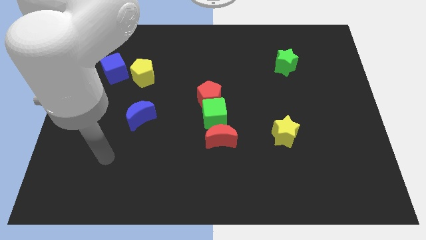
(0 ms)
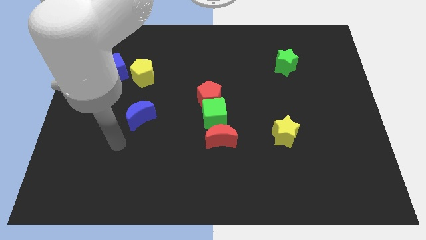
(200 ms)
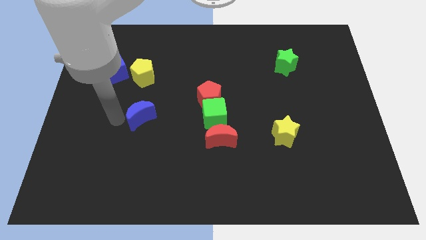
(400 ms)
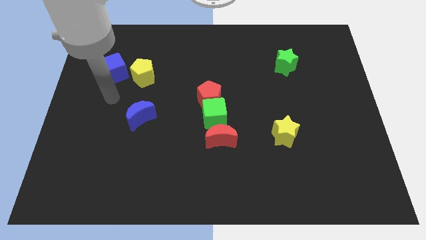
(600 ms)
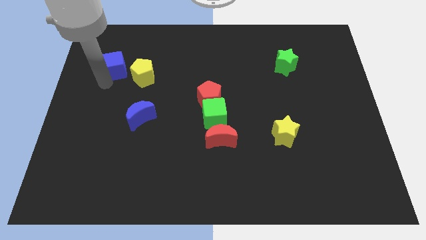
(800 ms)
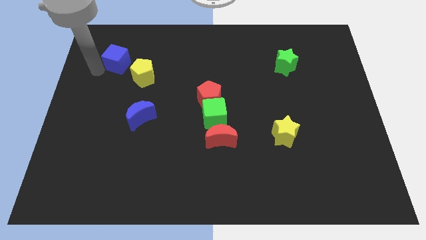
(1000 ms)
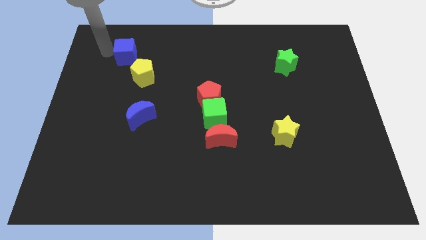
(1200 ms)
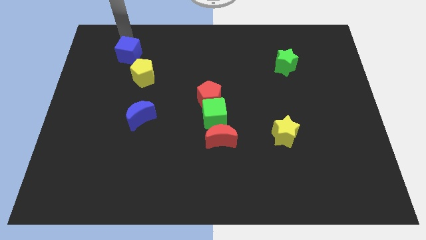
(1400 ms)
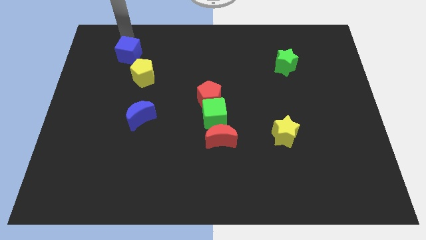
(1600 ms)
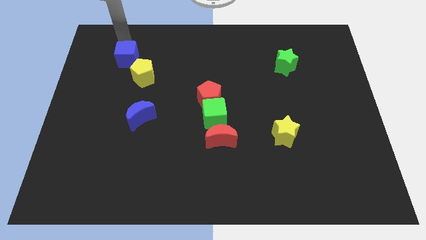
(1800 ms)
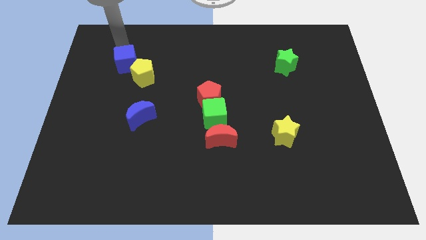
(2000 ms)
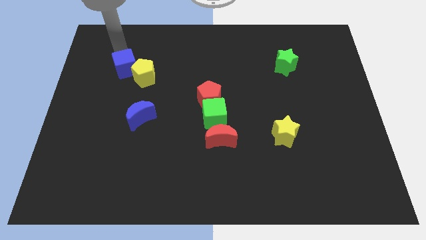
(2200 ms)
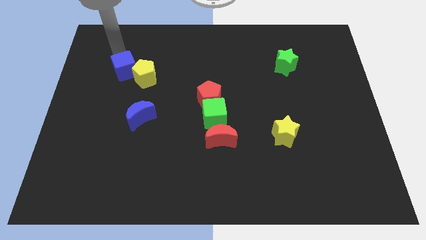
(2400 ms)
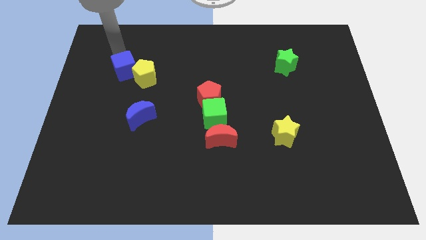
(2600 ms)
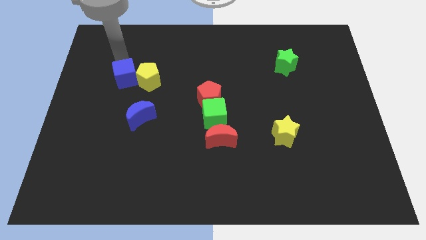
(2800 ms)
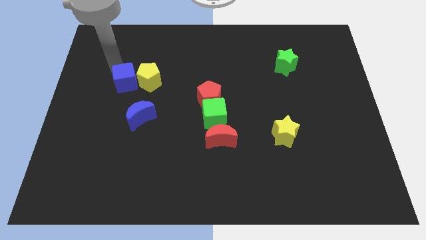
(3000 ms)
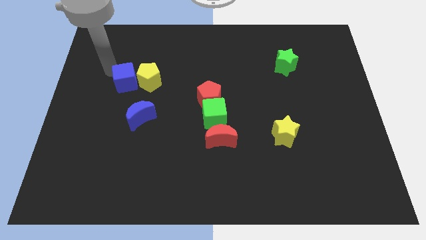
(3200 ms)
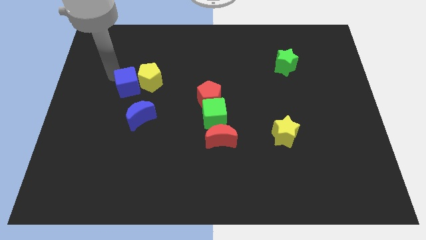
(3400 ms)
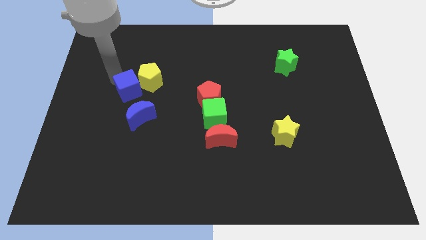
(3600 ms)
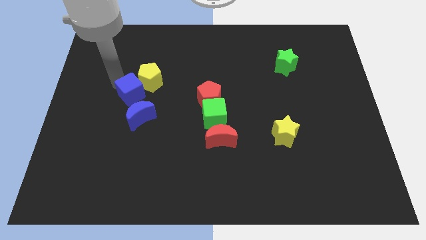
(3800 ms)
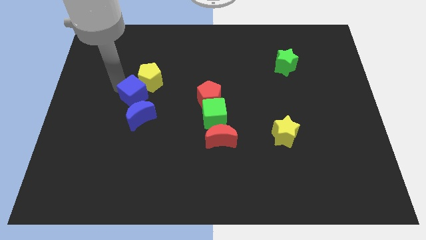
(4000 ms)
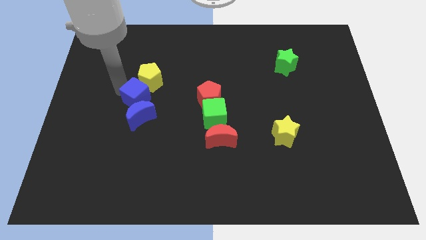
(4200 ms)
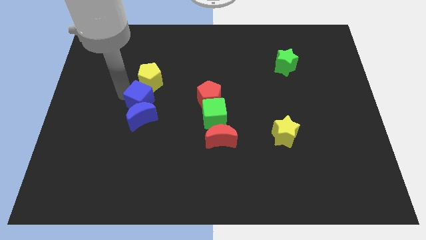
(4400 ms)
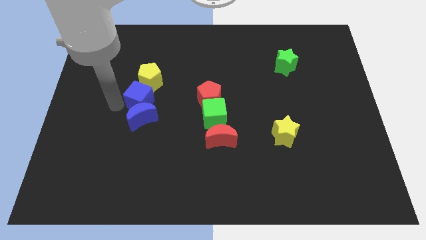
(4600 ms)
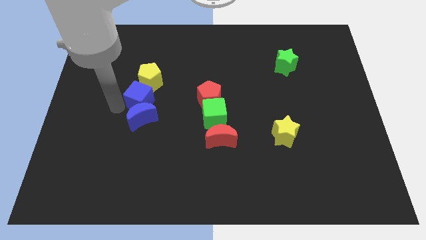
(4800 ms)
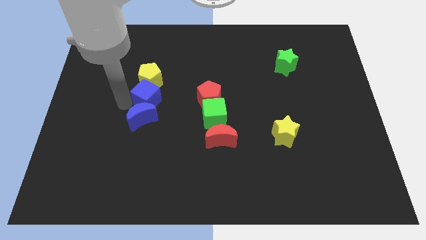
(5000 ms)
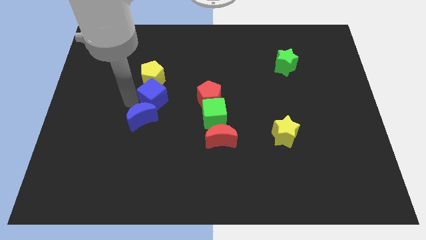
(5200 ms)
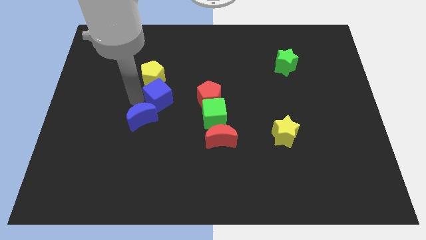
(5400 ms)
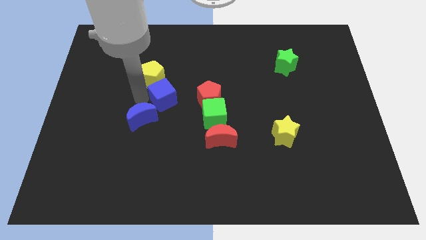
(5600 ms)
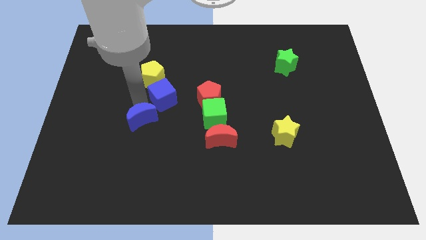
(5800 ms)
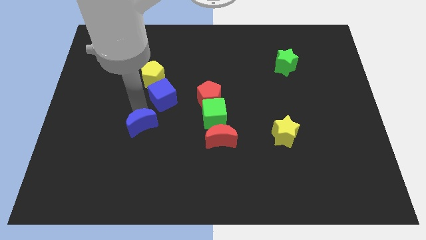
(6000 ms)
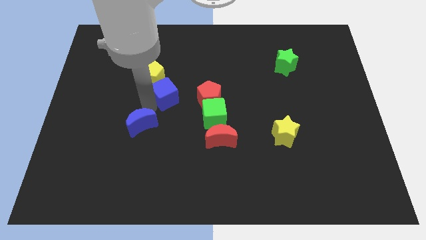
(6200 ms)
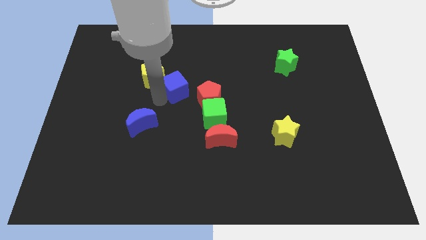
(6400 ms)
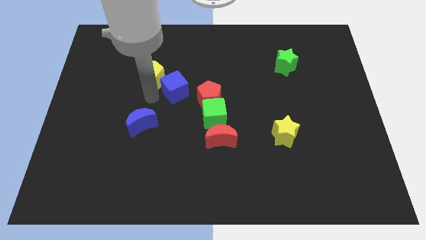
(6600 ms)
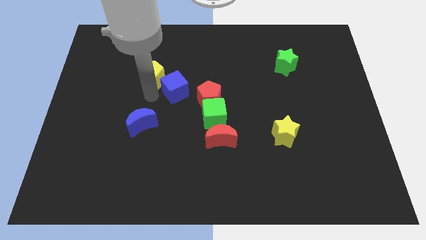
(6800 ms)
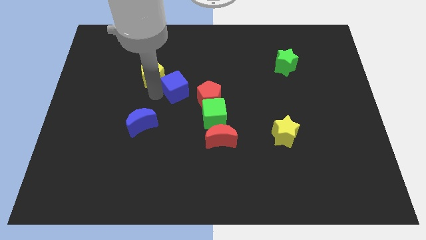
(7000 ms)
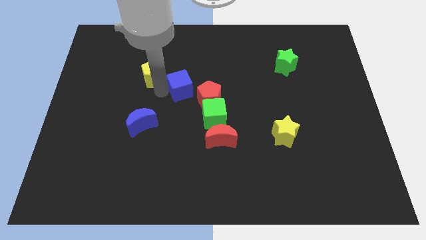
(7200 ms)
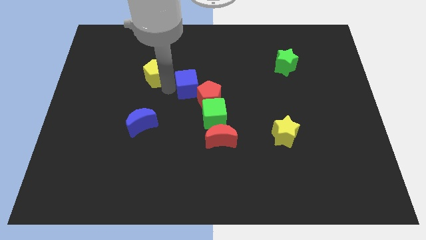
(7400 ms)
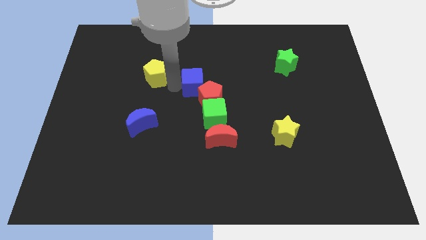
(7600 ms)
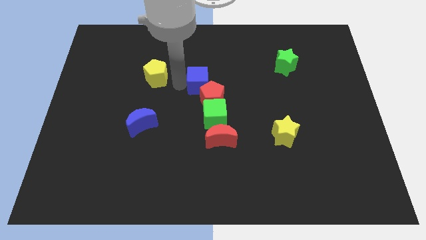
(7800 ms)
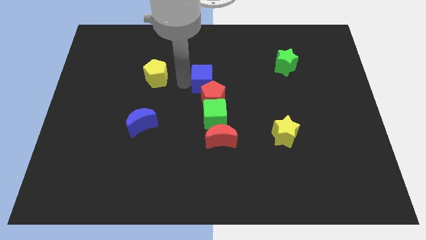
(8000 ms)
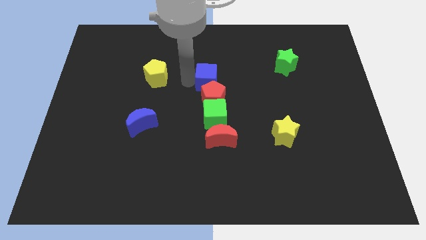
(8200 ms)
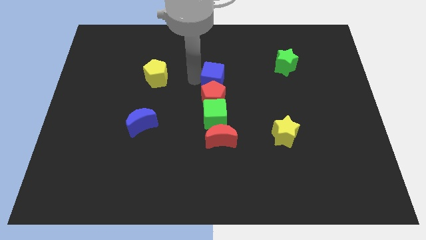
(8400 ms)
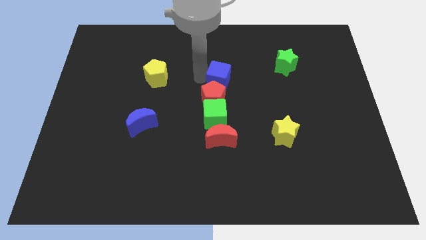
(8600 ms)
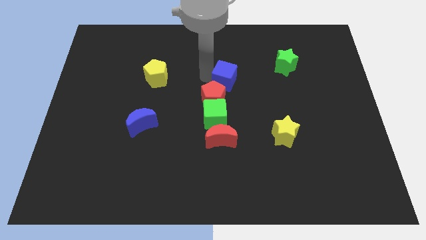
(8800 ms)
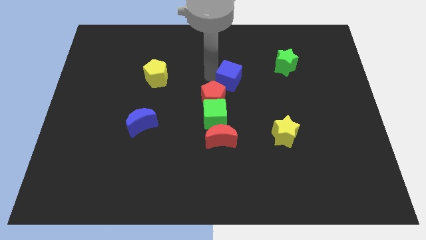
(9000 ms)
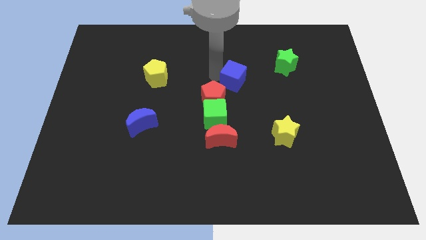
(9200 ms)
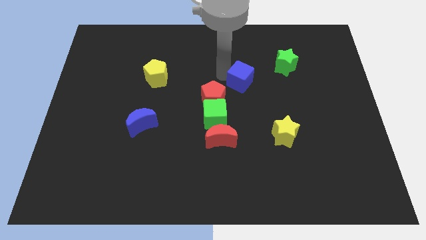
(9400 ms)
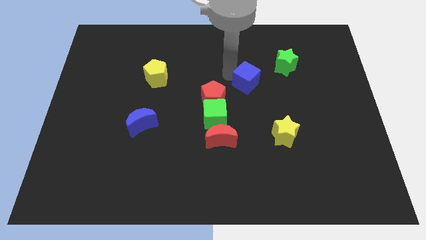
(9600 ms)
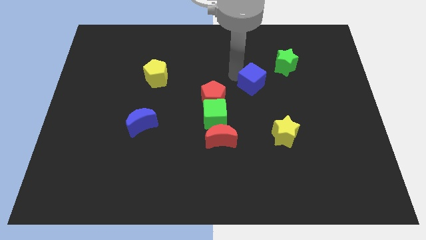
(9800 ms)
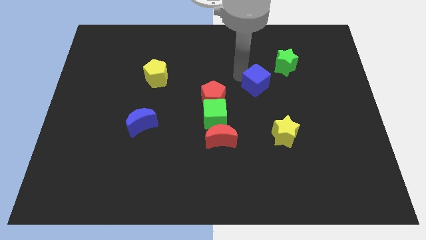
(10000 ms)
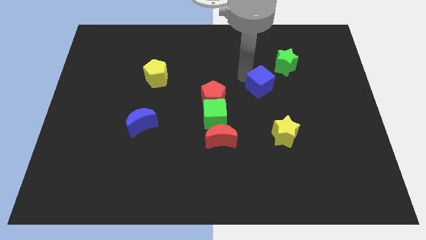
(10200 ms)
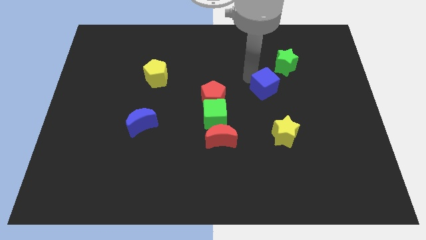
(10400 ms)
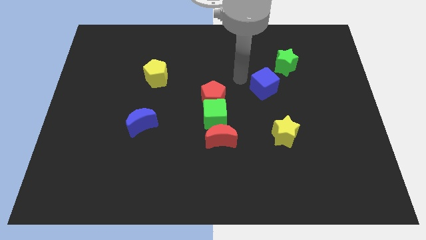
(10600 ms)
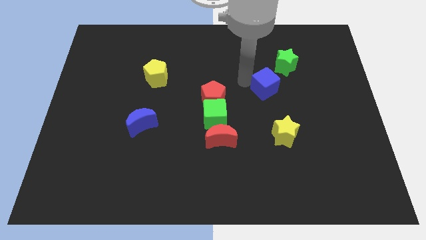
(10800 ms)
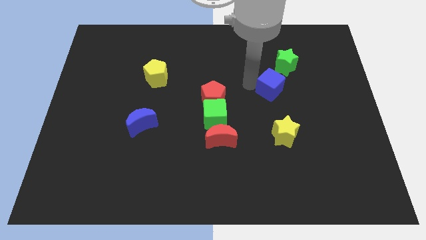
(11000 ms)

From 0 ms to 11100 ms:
put the blue cube to the bottom side of the green star

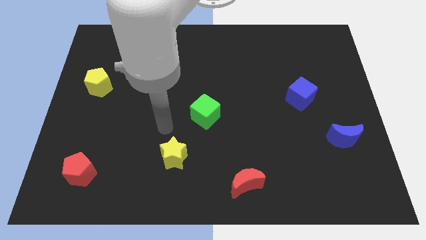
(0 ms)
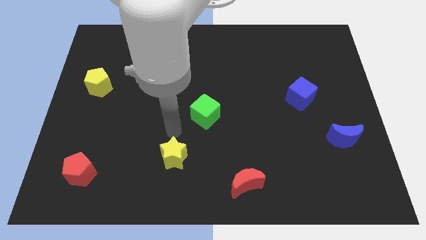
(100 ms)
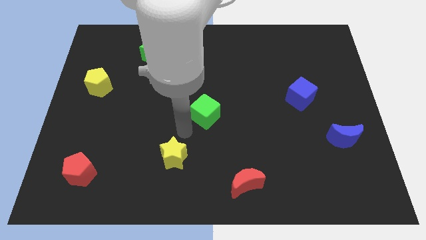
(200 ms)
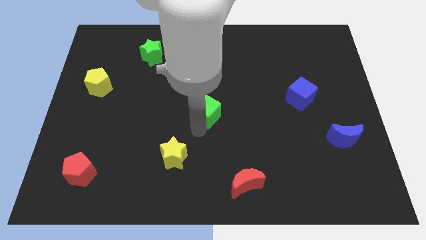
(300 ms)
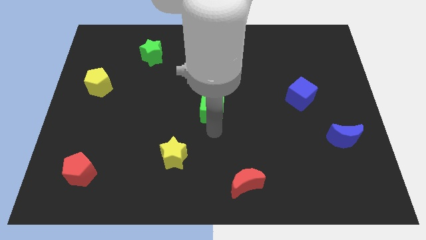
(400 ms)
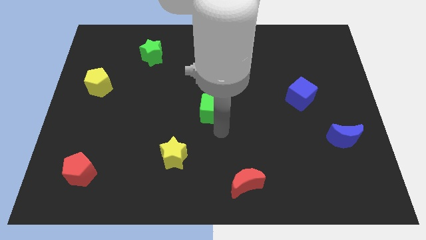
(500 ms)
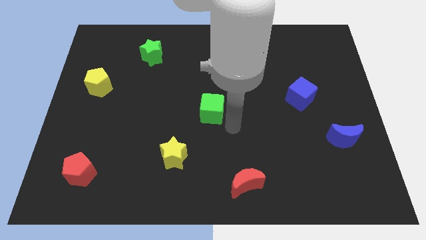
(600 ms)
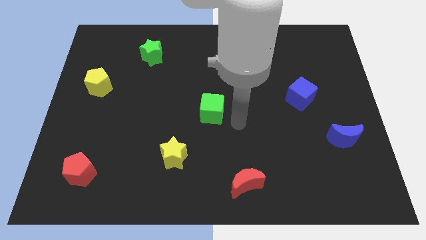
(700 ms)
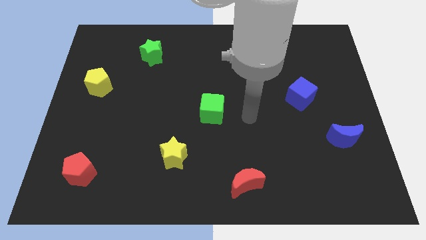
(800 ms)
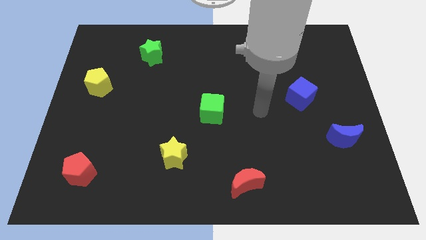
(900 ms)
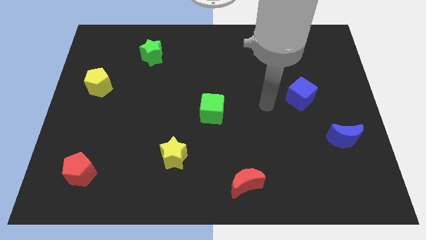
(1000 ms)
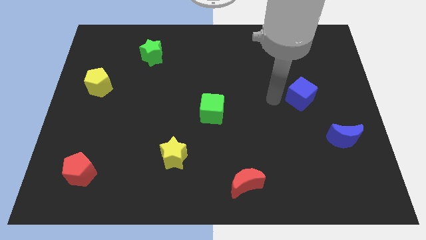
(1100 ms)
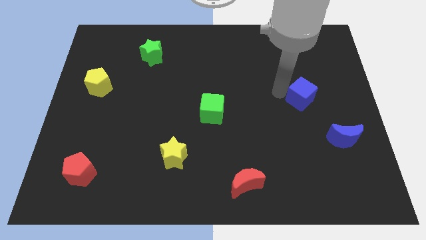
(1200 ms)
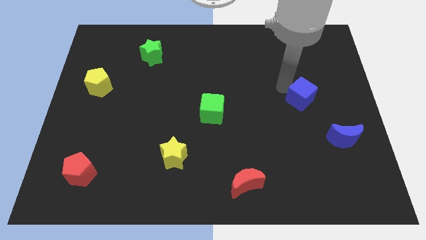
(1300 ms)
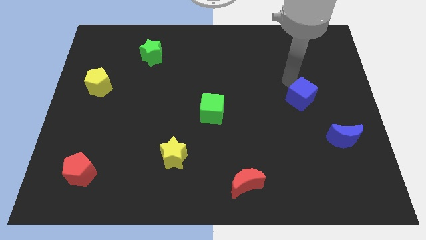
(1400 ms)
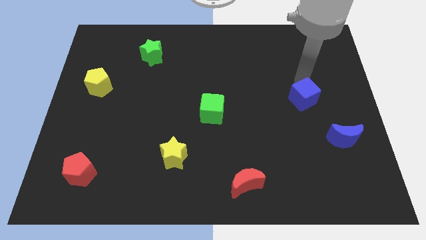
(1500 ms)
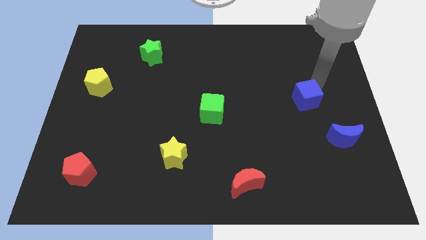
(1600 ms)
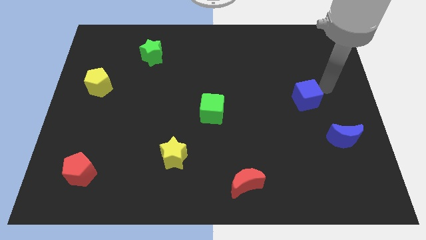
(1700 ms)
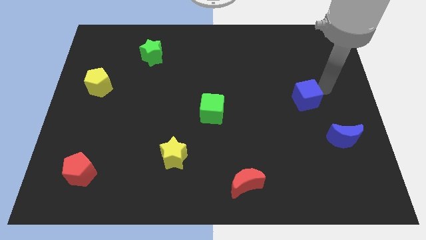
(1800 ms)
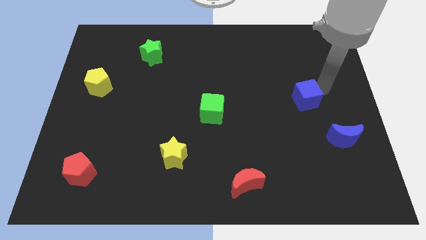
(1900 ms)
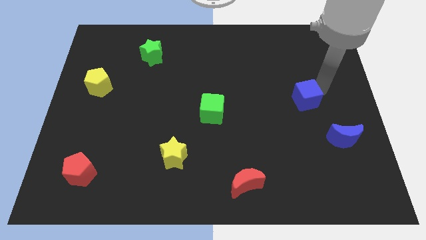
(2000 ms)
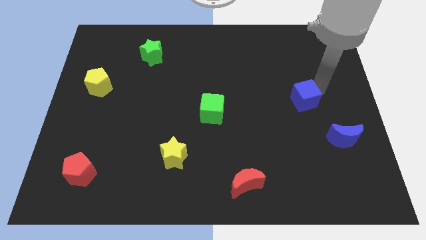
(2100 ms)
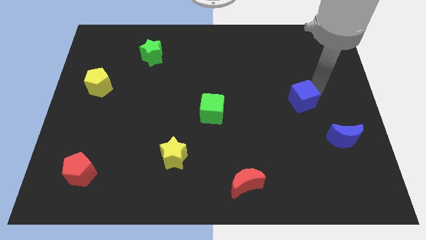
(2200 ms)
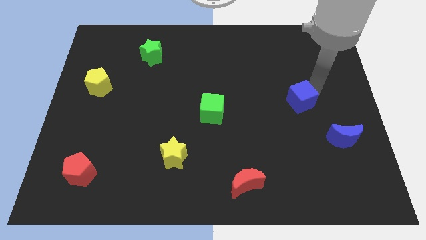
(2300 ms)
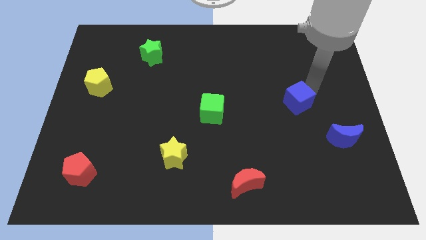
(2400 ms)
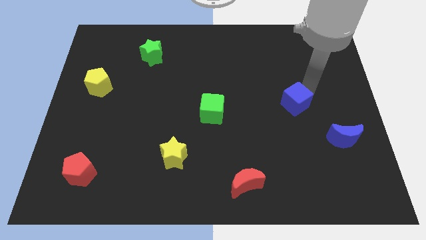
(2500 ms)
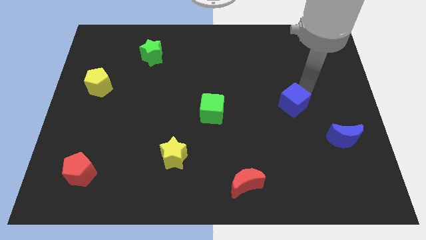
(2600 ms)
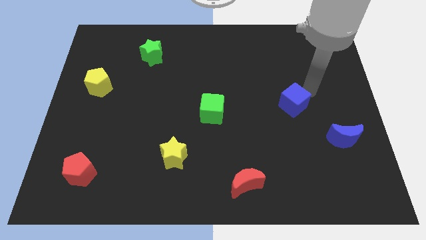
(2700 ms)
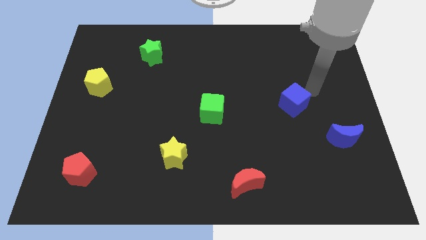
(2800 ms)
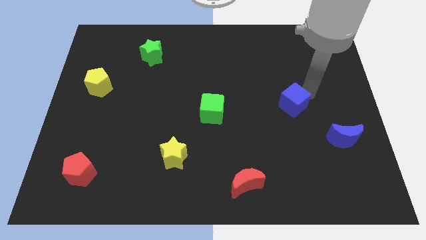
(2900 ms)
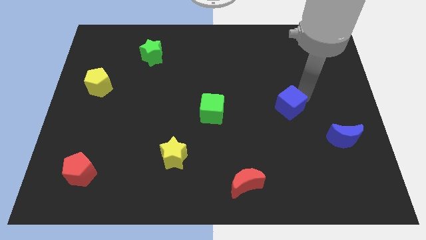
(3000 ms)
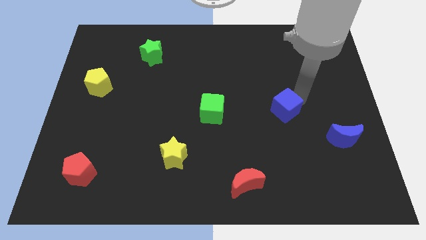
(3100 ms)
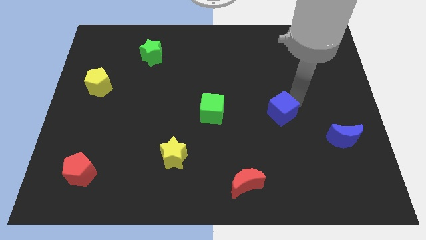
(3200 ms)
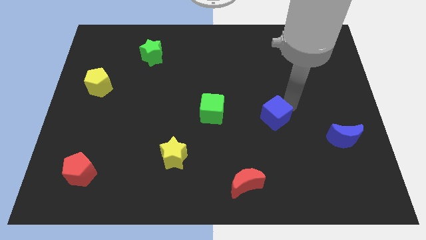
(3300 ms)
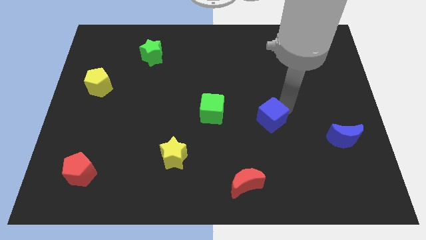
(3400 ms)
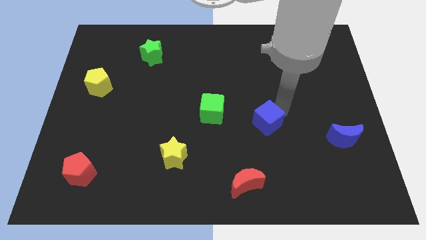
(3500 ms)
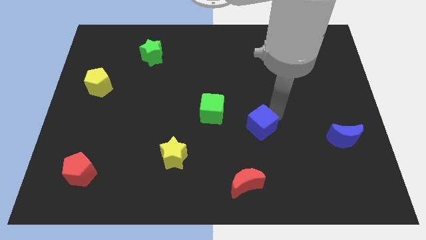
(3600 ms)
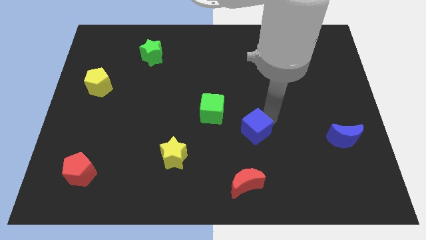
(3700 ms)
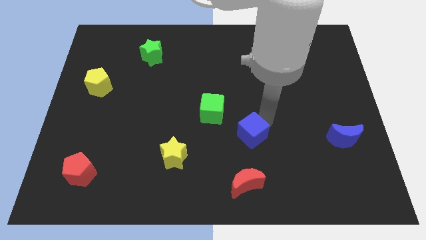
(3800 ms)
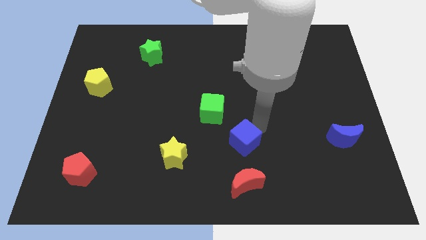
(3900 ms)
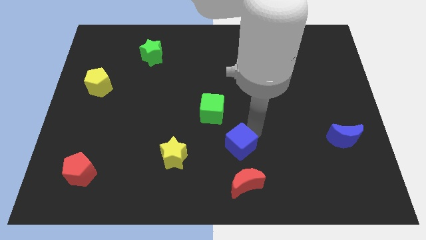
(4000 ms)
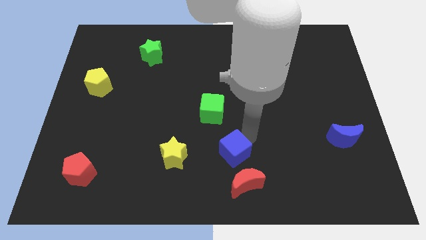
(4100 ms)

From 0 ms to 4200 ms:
slide the blue cube diagonally up and to the left of the red moon
